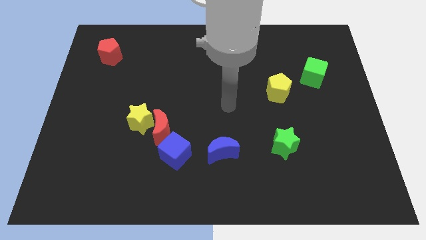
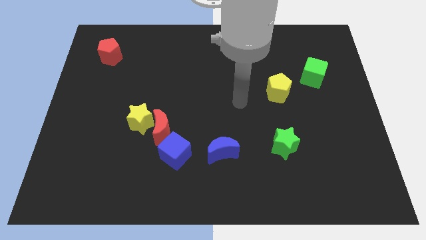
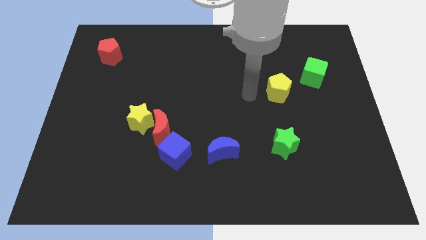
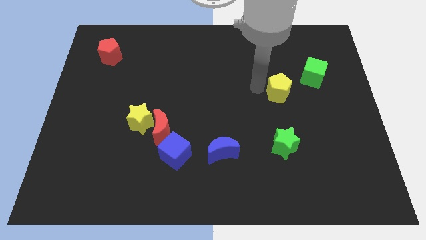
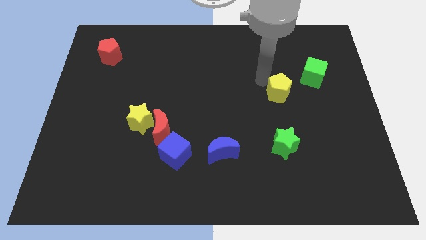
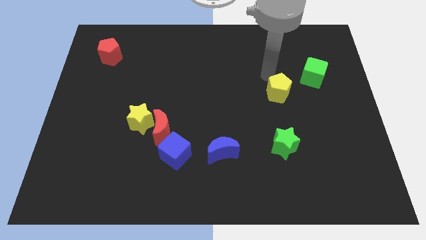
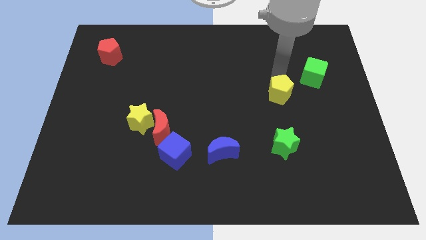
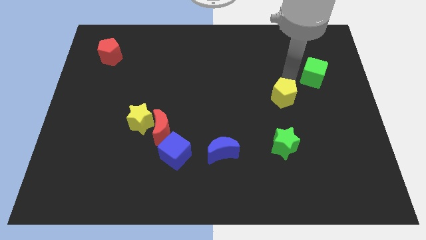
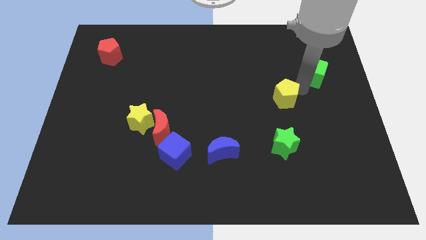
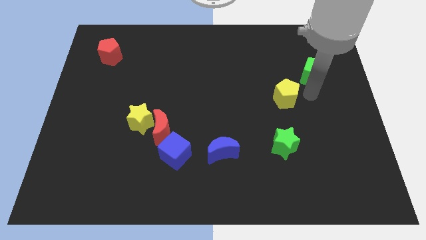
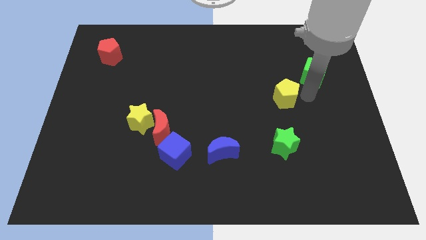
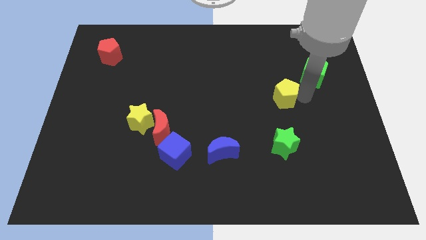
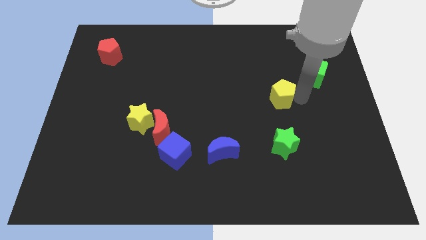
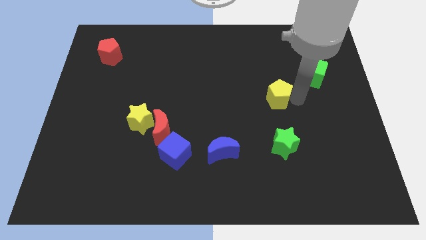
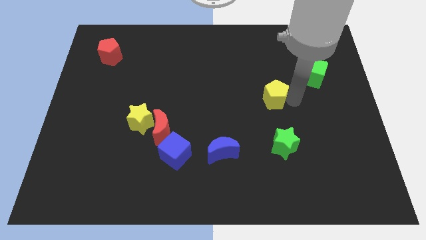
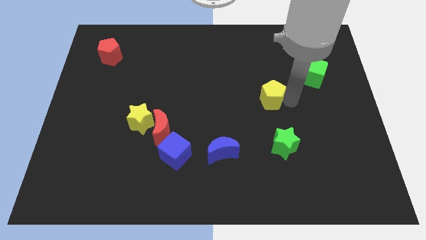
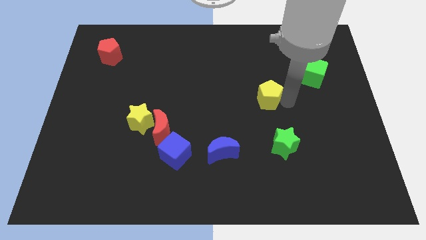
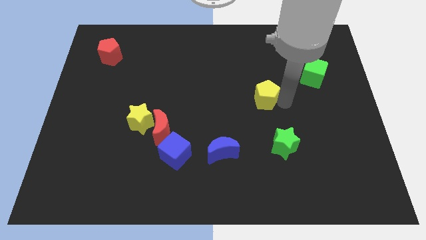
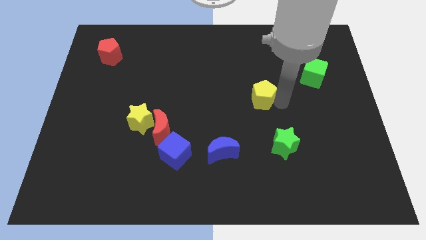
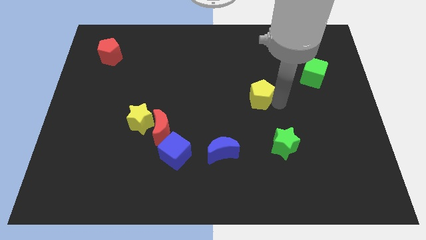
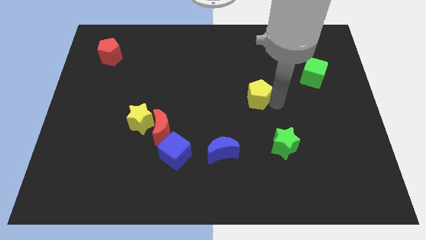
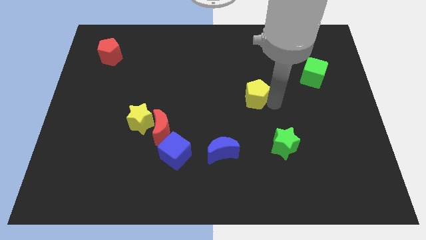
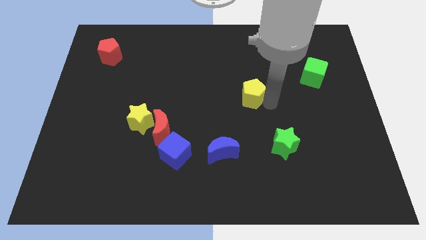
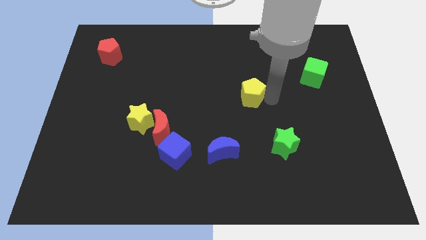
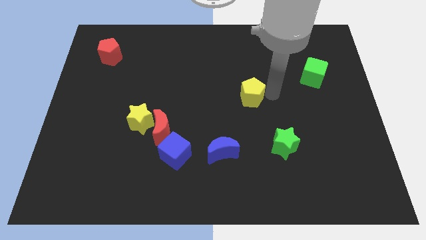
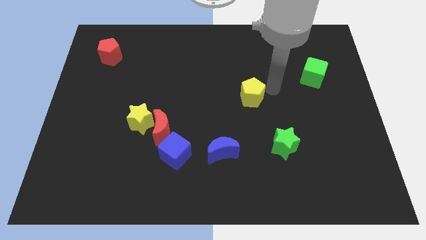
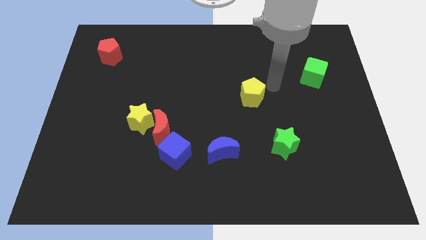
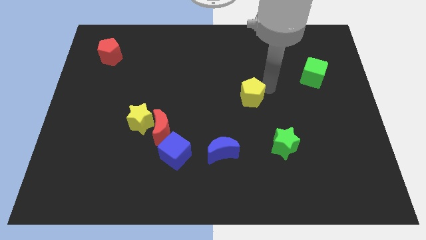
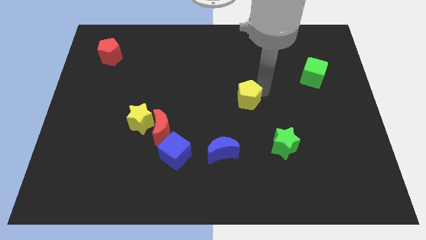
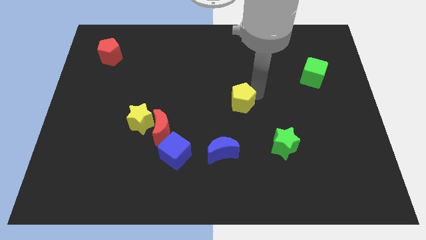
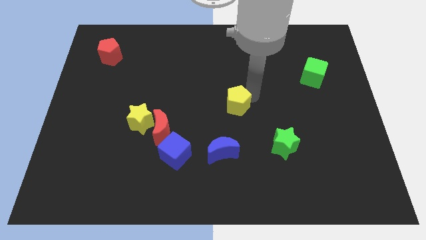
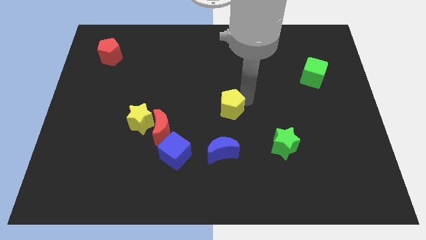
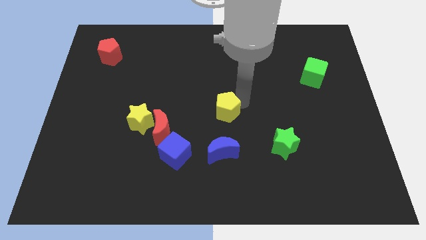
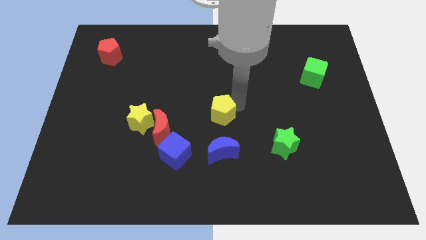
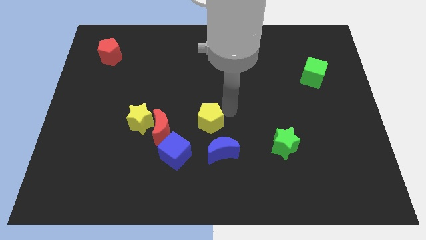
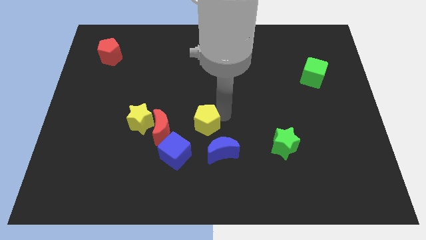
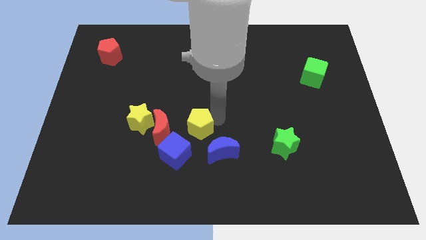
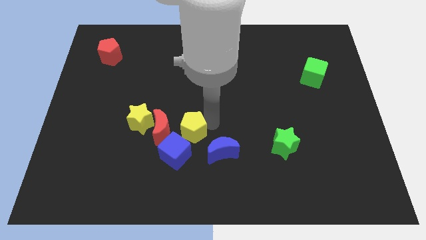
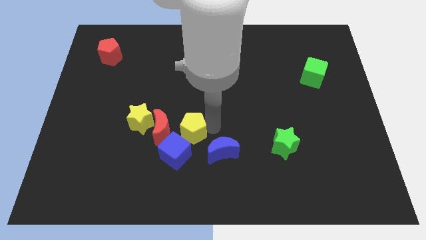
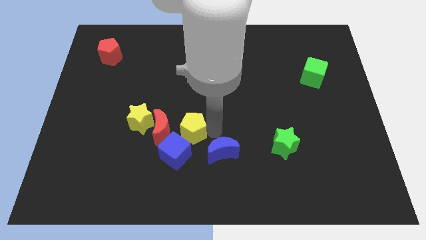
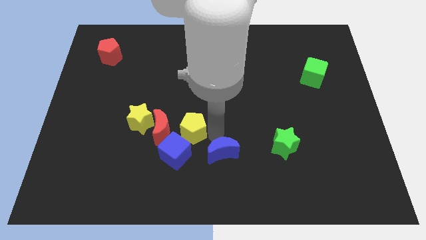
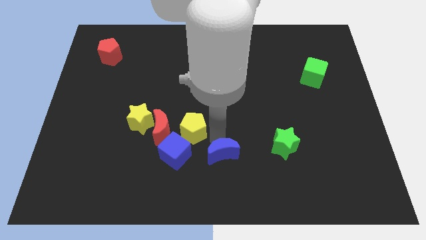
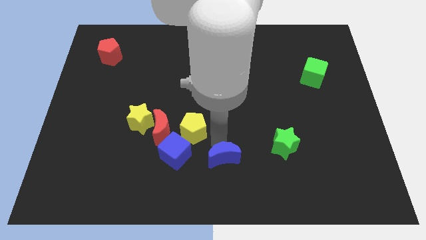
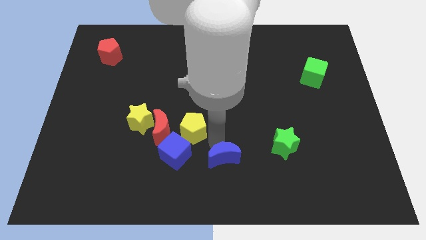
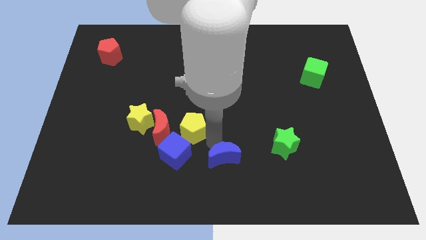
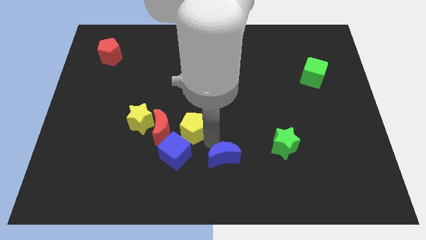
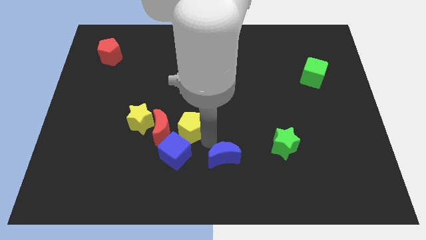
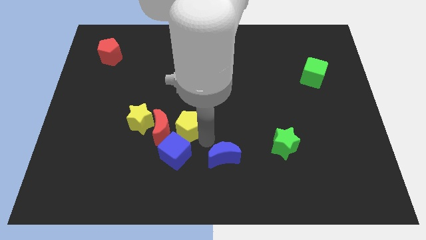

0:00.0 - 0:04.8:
move the yellow pentagon close to the red moon

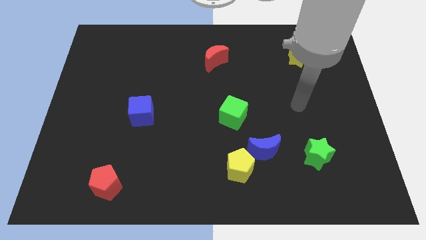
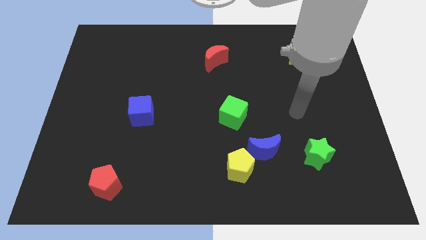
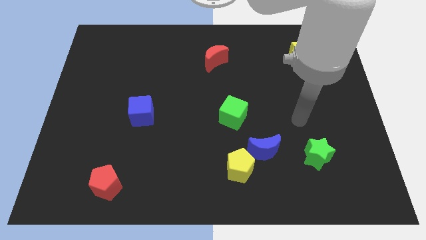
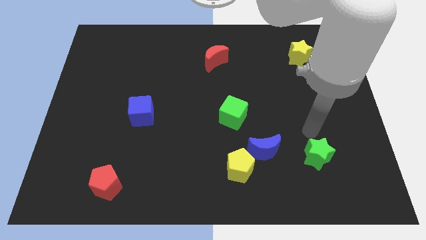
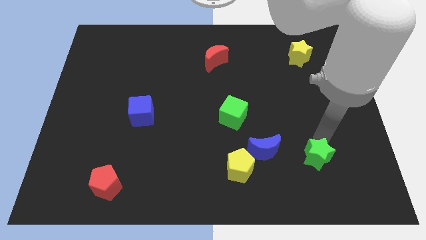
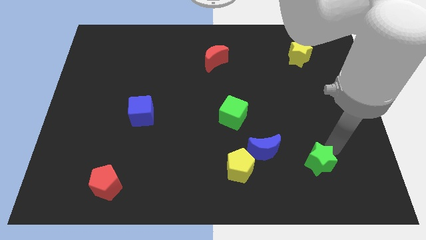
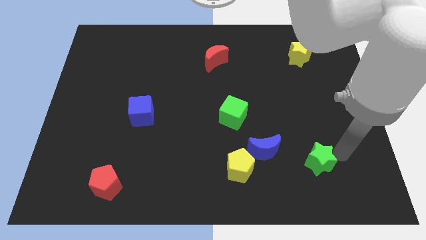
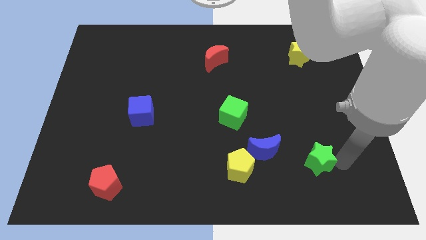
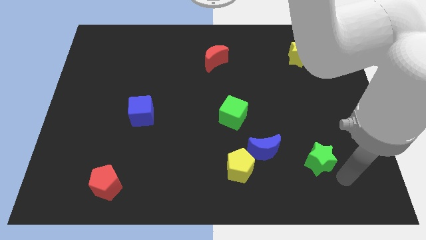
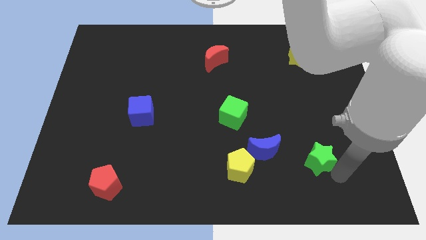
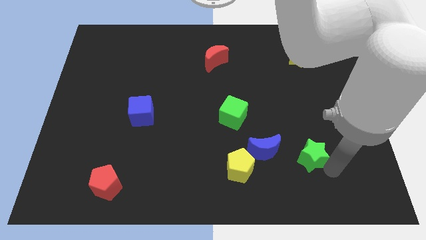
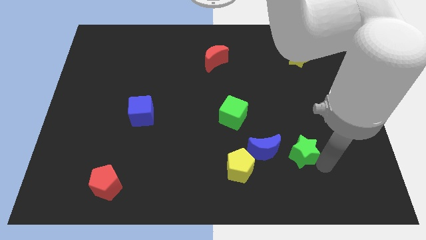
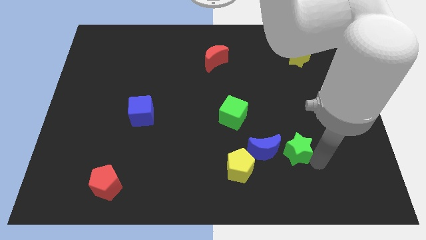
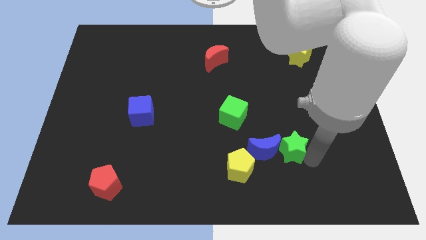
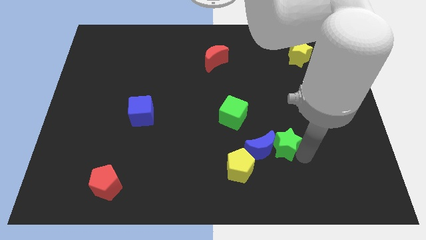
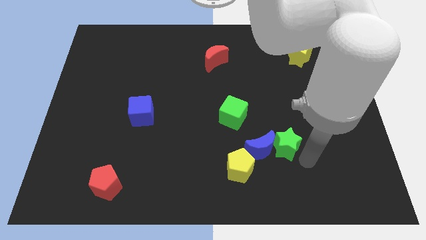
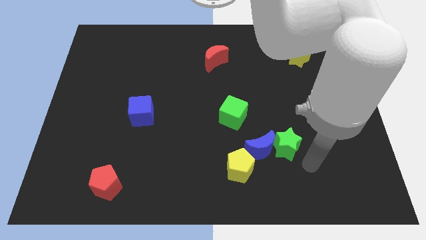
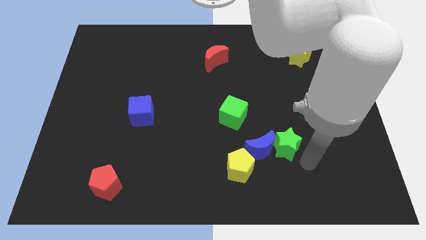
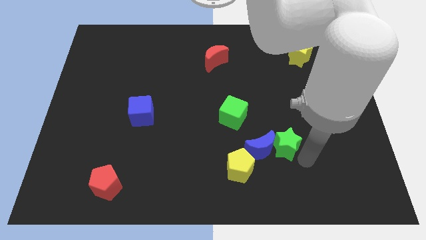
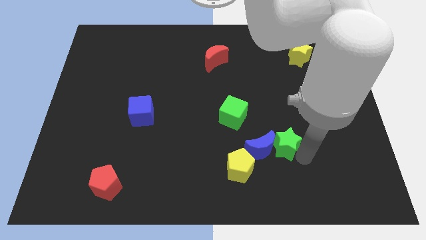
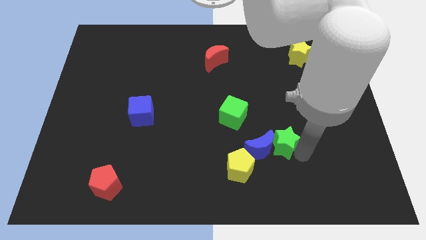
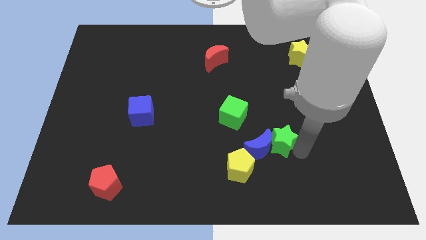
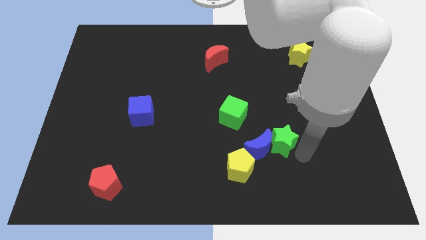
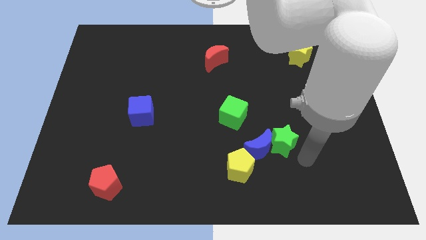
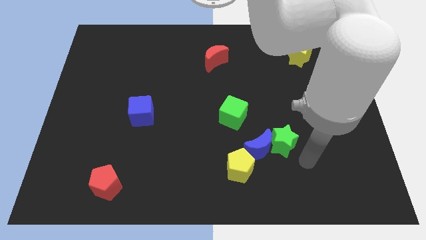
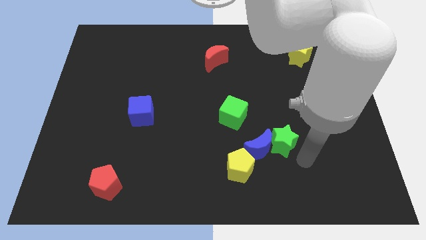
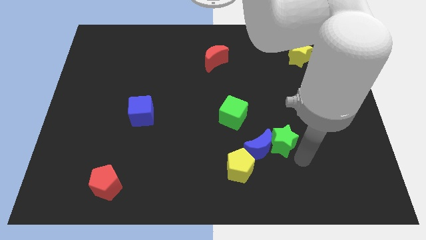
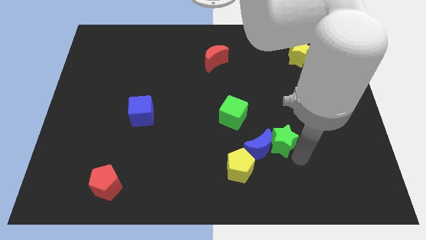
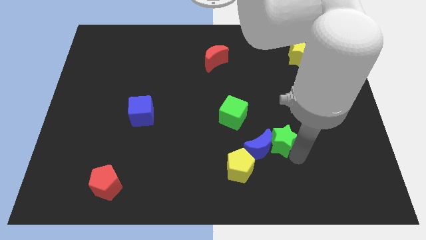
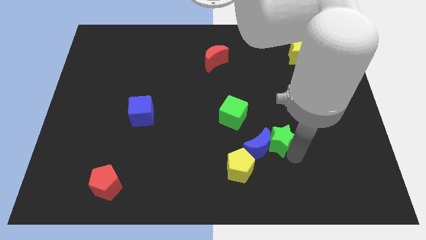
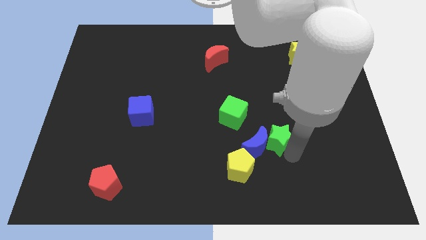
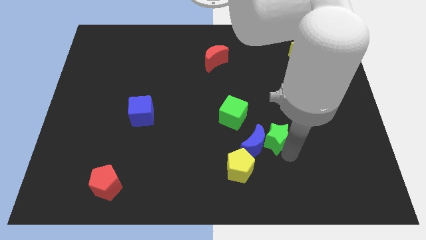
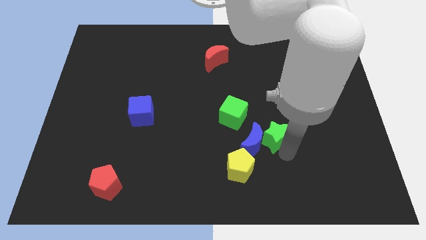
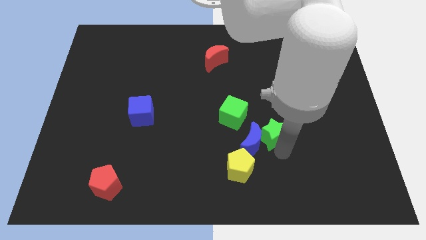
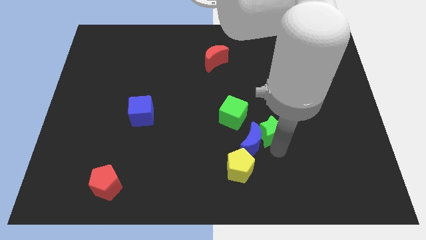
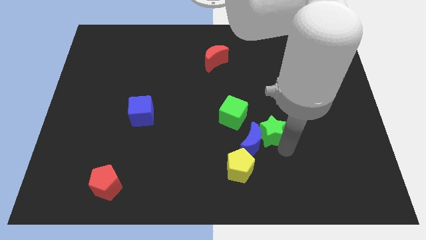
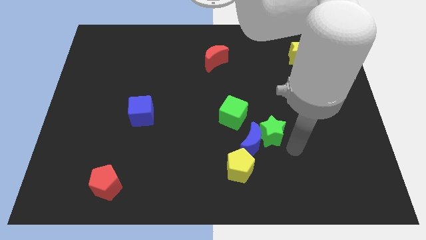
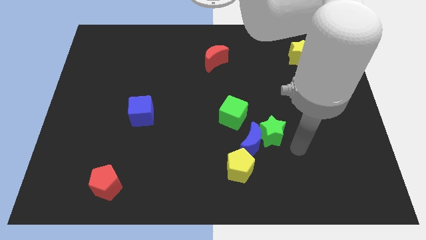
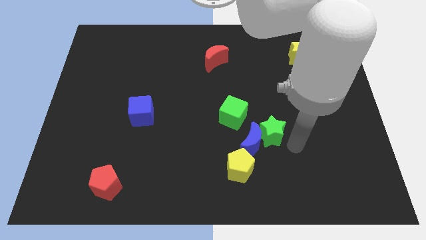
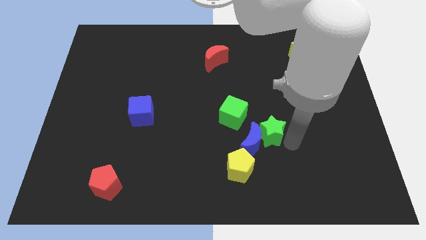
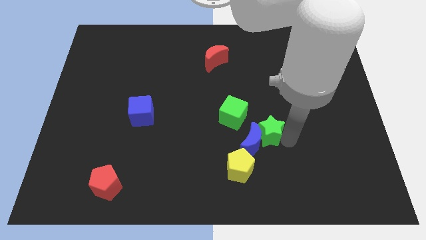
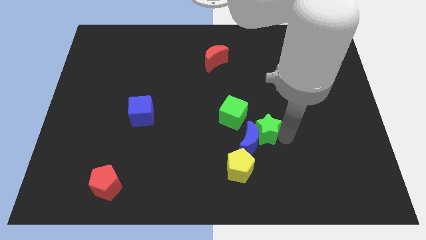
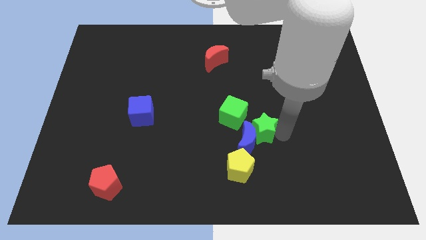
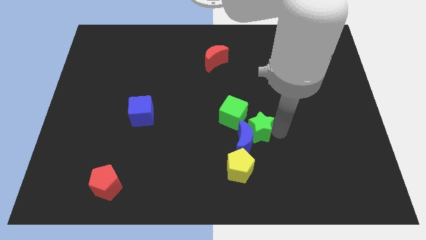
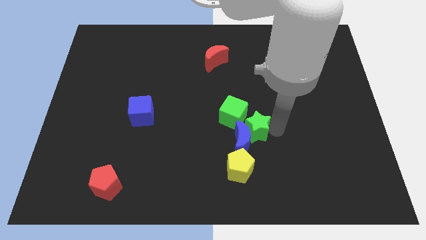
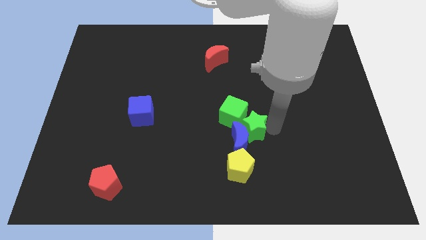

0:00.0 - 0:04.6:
slide the green star to the green cube
